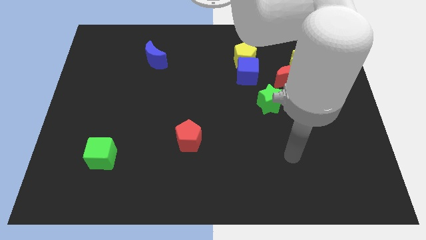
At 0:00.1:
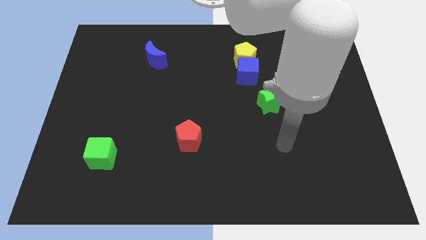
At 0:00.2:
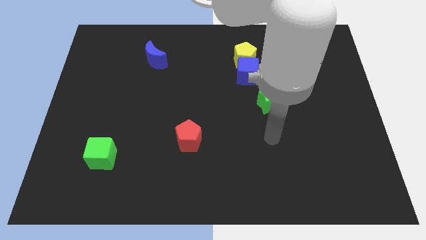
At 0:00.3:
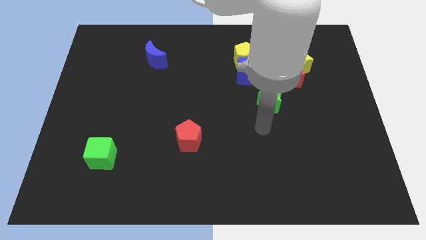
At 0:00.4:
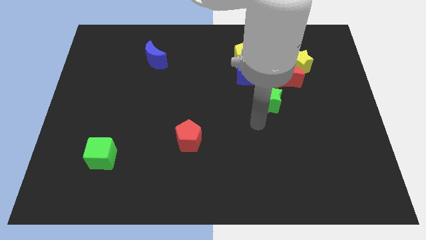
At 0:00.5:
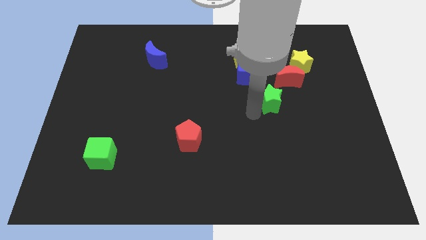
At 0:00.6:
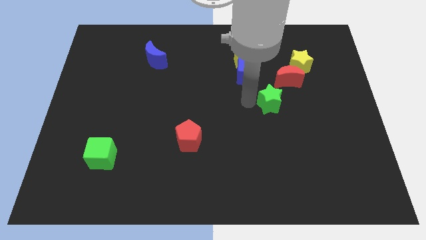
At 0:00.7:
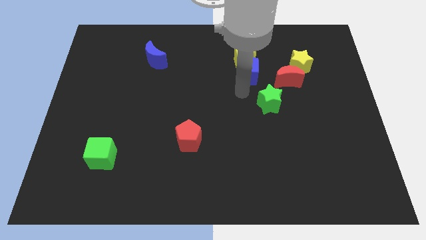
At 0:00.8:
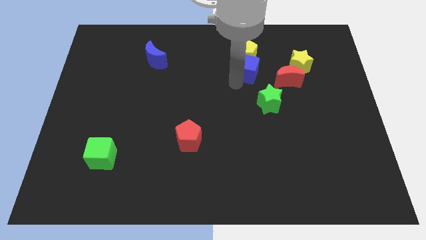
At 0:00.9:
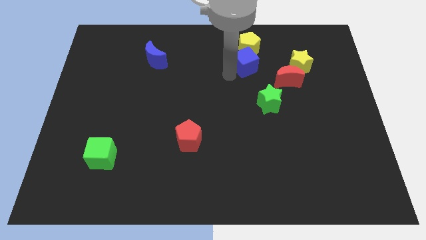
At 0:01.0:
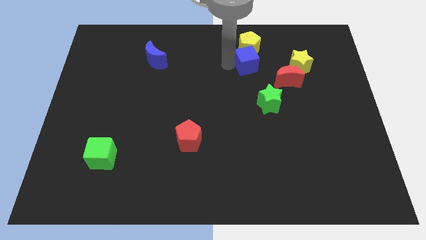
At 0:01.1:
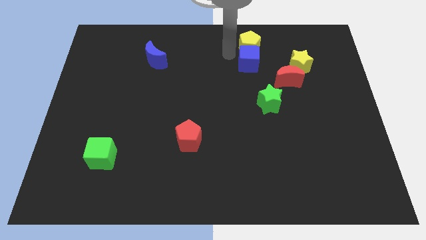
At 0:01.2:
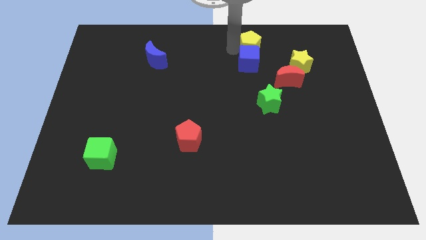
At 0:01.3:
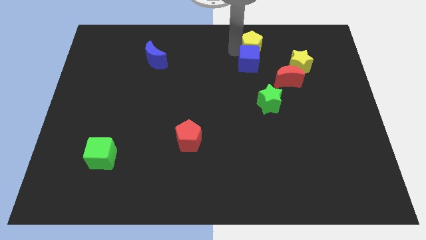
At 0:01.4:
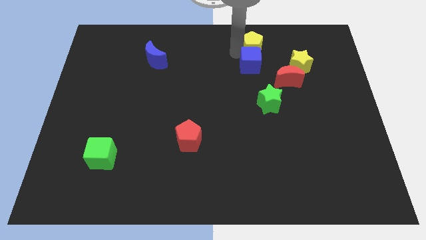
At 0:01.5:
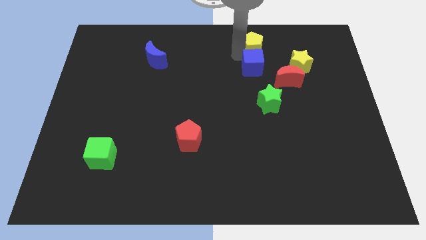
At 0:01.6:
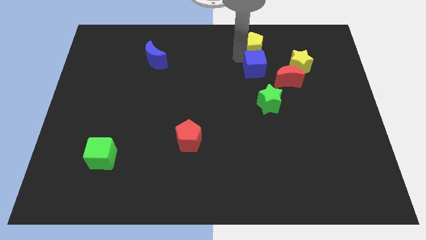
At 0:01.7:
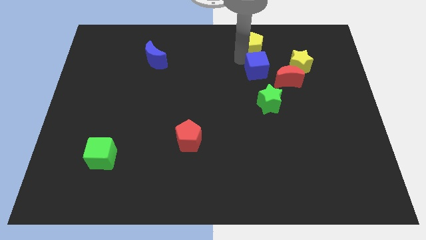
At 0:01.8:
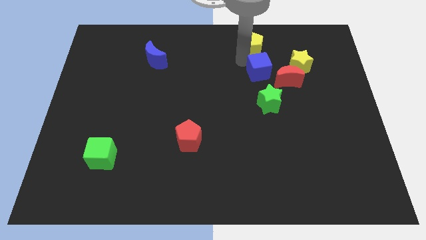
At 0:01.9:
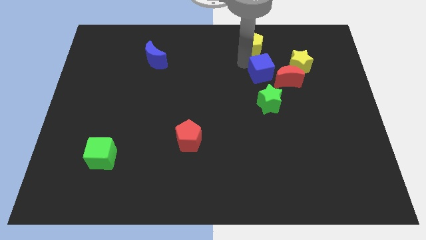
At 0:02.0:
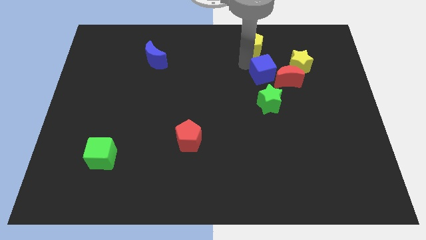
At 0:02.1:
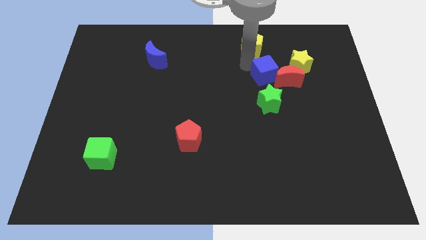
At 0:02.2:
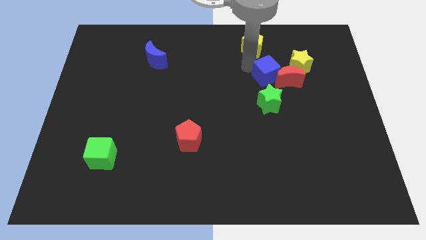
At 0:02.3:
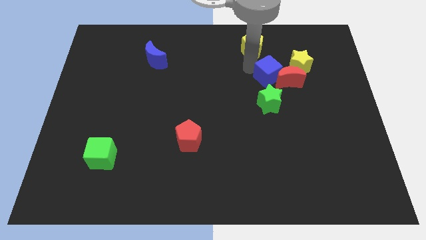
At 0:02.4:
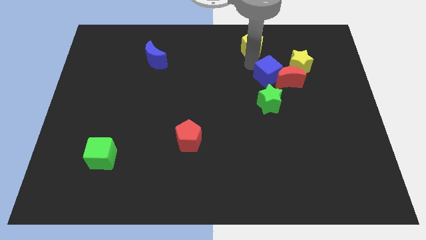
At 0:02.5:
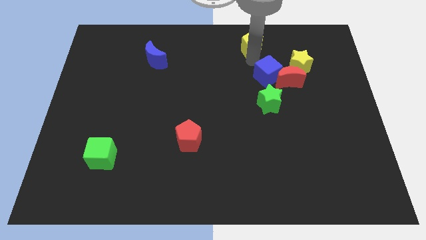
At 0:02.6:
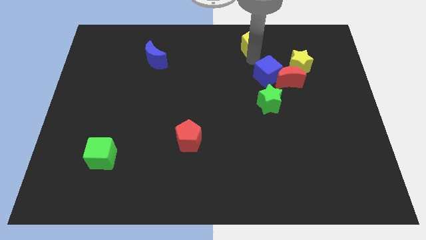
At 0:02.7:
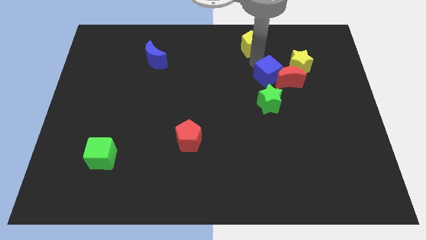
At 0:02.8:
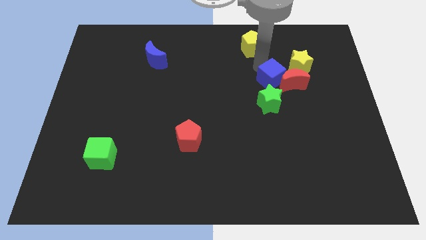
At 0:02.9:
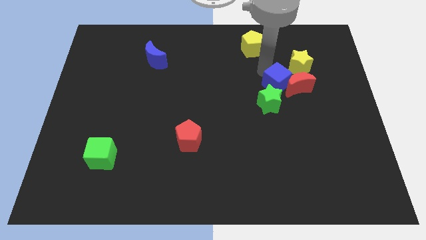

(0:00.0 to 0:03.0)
slide the blue cube slightly right

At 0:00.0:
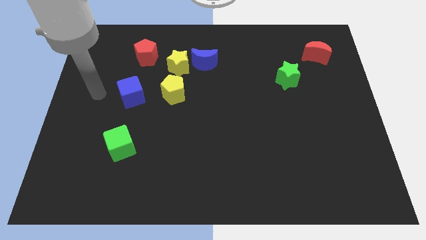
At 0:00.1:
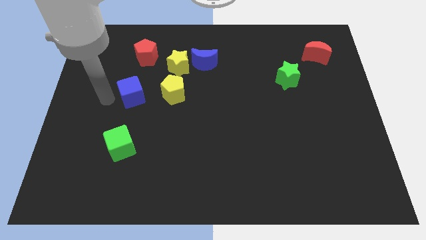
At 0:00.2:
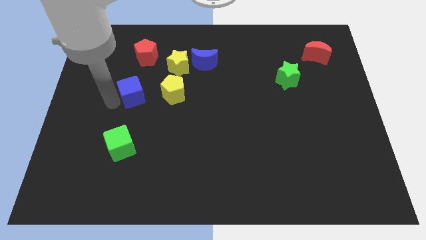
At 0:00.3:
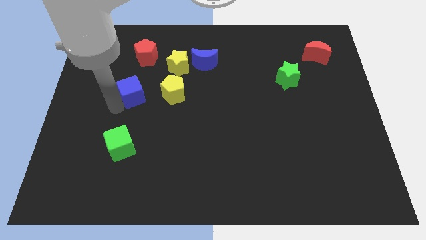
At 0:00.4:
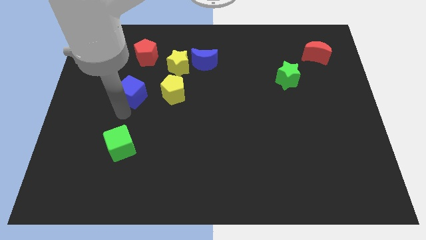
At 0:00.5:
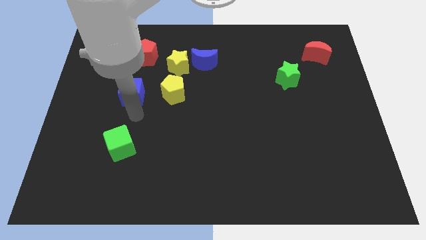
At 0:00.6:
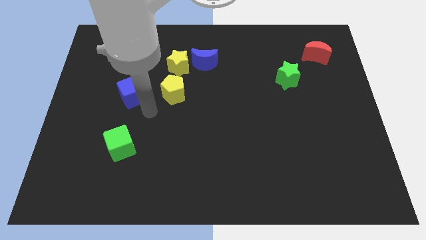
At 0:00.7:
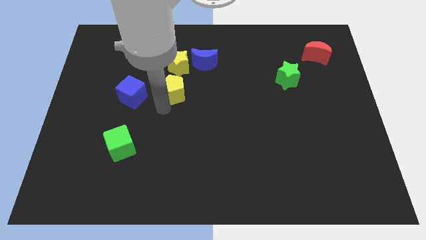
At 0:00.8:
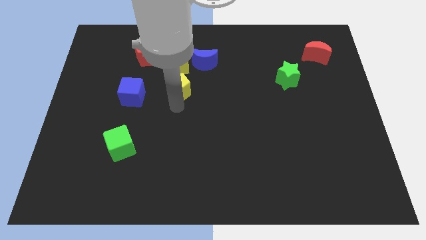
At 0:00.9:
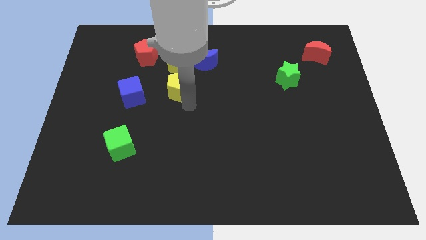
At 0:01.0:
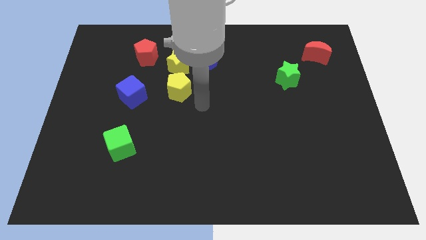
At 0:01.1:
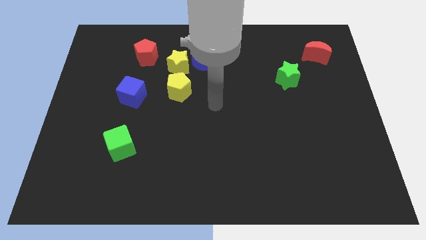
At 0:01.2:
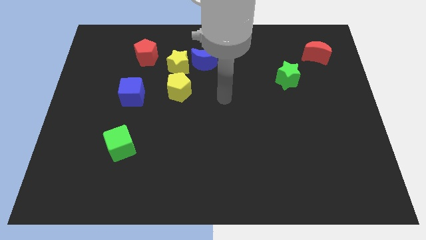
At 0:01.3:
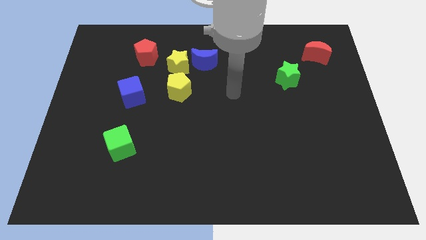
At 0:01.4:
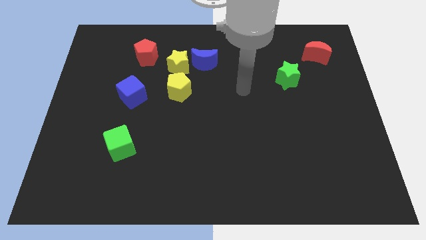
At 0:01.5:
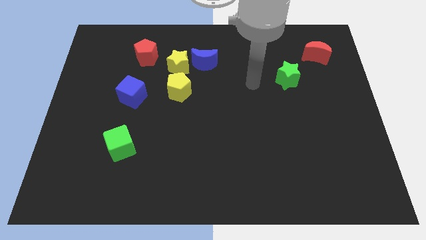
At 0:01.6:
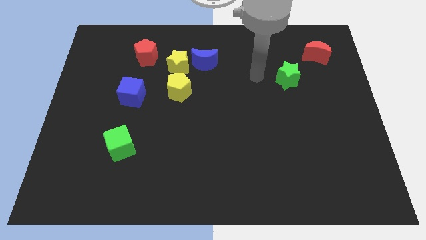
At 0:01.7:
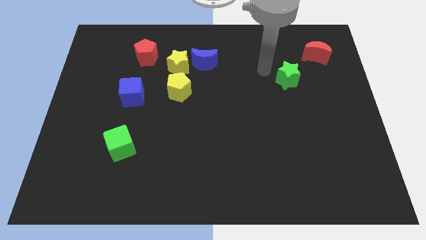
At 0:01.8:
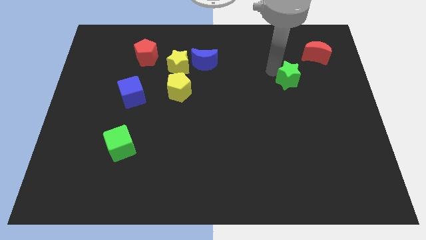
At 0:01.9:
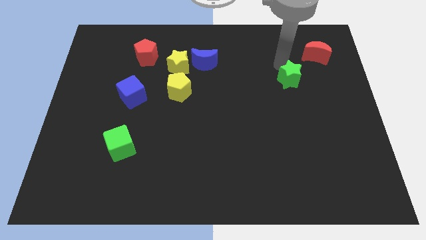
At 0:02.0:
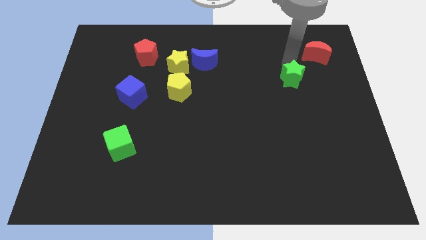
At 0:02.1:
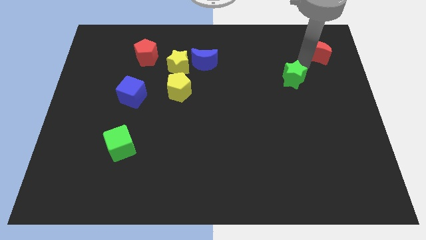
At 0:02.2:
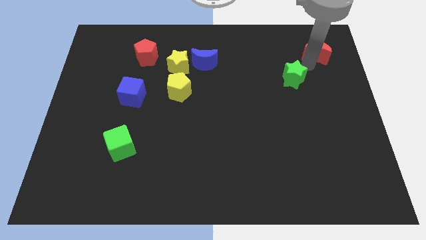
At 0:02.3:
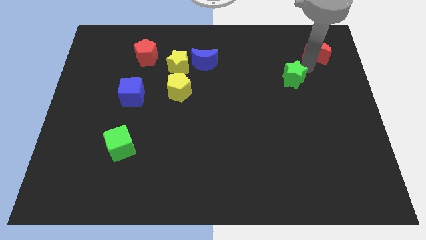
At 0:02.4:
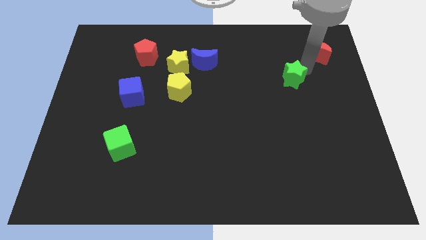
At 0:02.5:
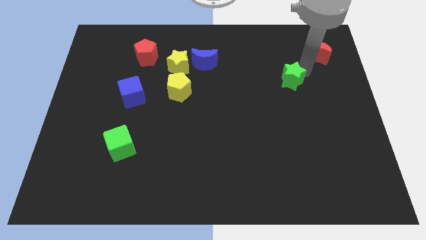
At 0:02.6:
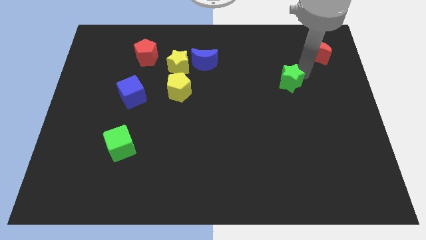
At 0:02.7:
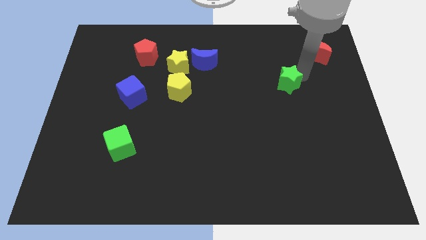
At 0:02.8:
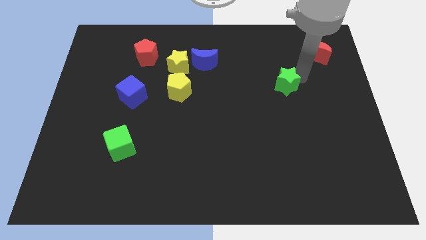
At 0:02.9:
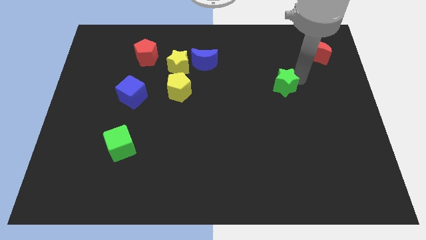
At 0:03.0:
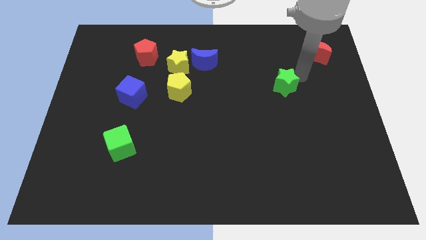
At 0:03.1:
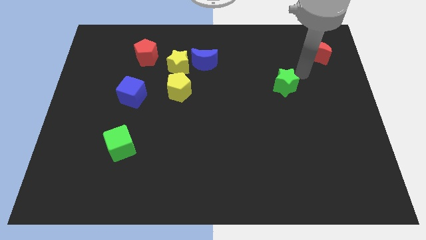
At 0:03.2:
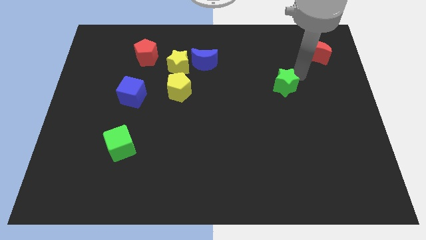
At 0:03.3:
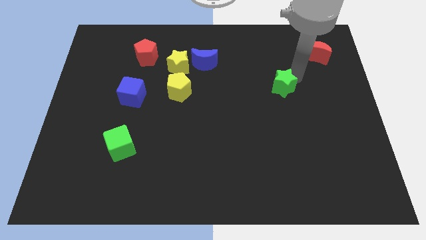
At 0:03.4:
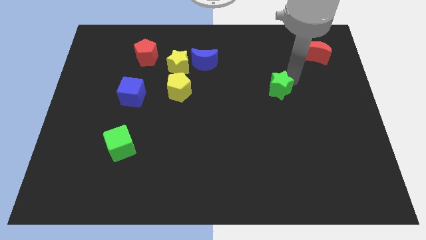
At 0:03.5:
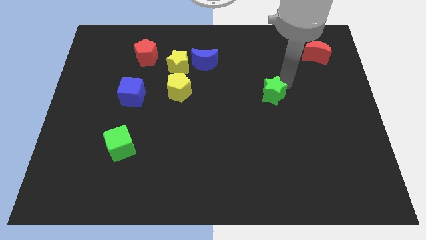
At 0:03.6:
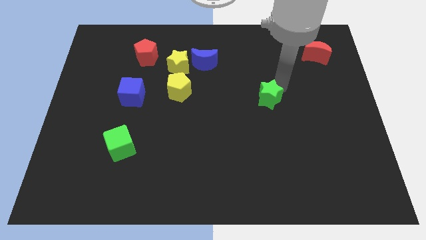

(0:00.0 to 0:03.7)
slightly push the green star down and then left

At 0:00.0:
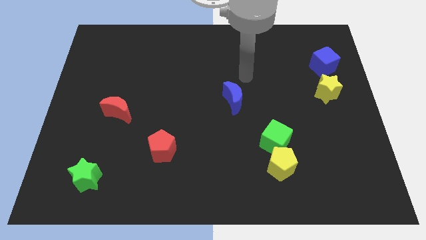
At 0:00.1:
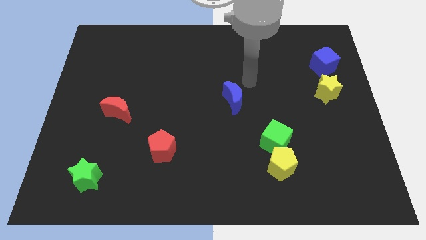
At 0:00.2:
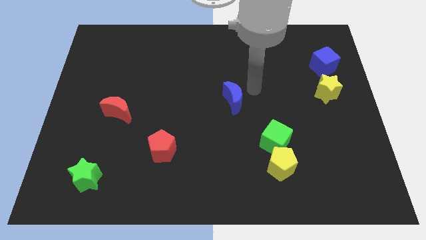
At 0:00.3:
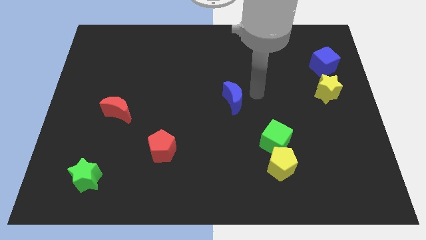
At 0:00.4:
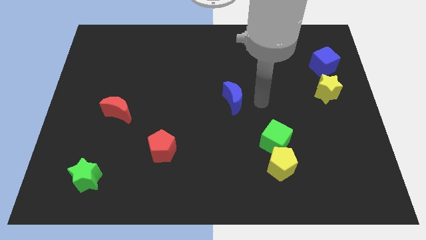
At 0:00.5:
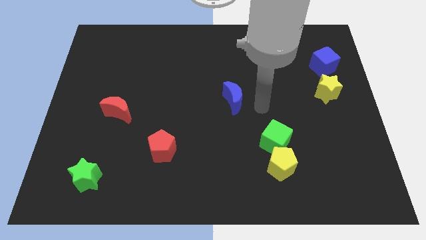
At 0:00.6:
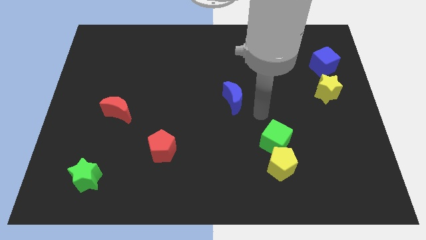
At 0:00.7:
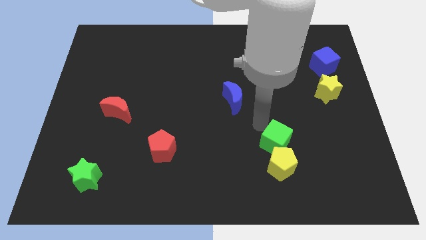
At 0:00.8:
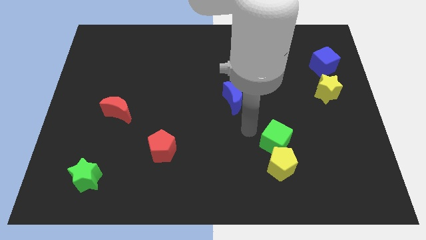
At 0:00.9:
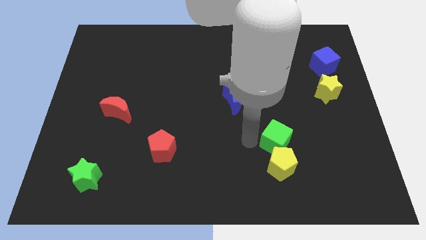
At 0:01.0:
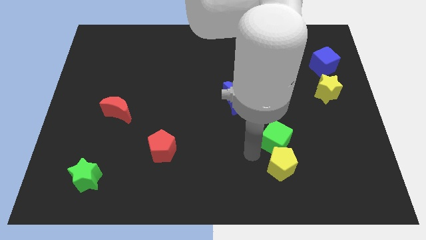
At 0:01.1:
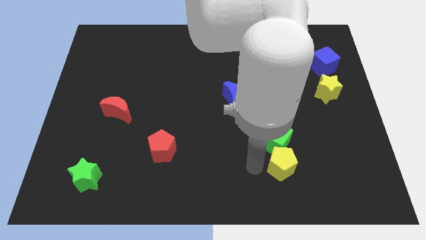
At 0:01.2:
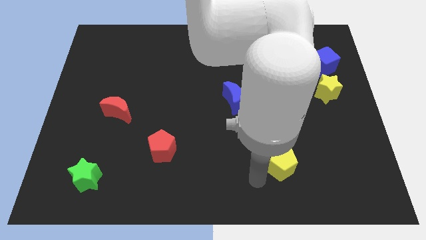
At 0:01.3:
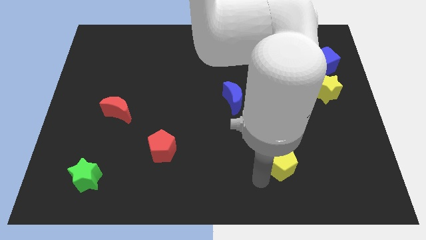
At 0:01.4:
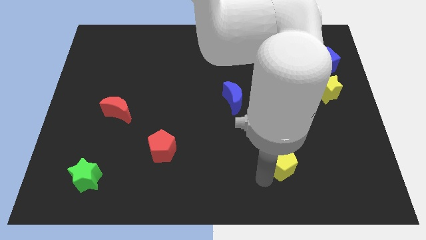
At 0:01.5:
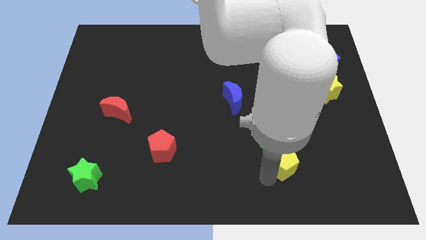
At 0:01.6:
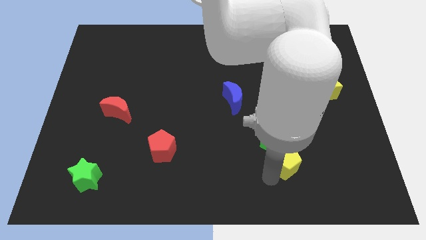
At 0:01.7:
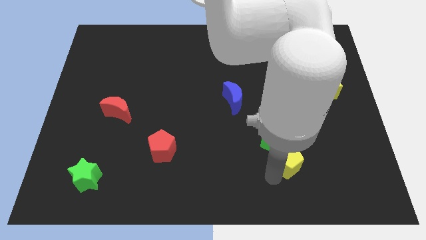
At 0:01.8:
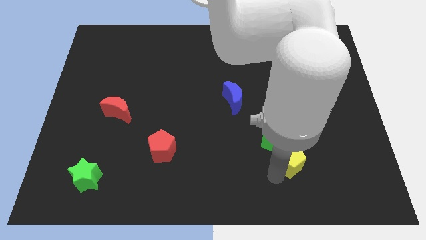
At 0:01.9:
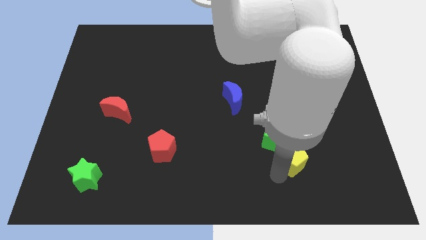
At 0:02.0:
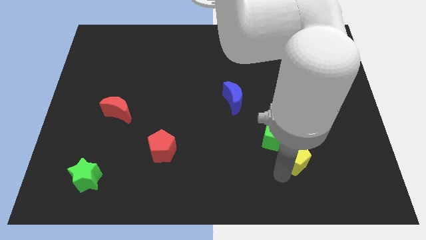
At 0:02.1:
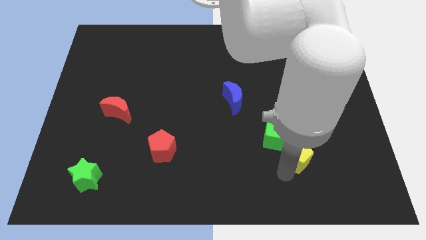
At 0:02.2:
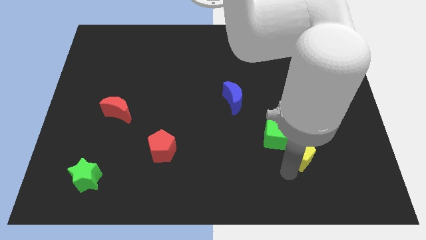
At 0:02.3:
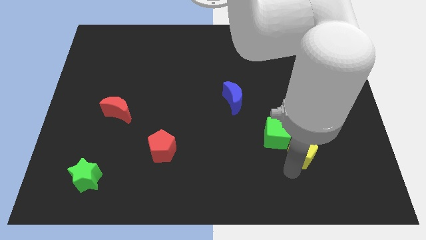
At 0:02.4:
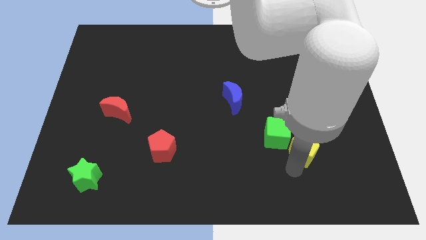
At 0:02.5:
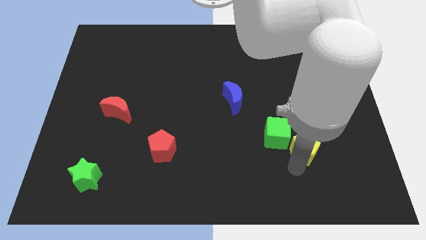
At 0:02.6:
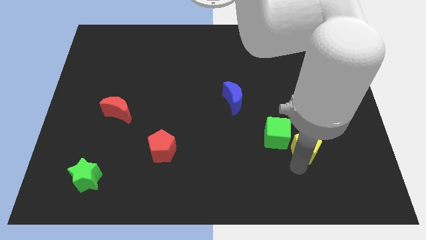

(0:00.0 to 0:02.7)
slightly push the yellow pentagon upwards and then to the right
